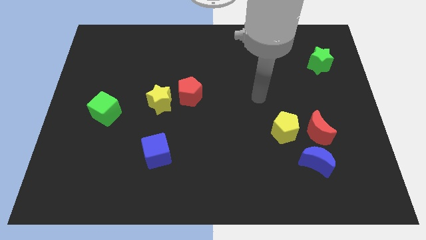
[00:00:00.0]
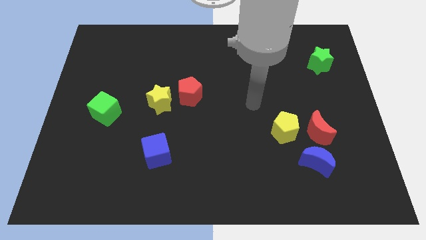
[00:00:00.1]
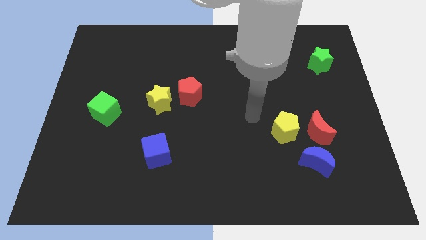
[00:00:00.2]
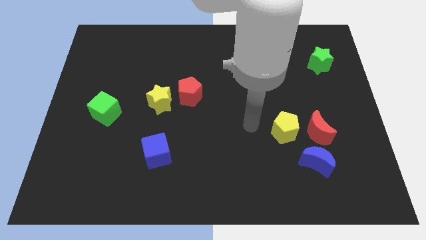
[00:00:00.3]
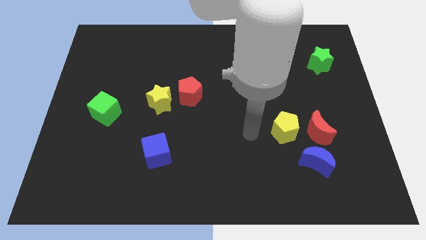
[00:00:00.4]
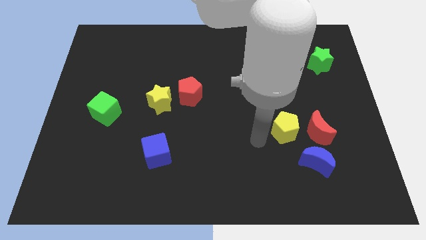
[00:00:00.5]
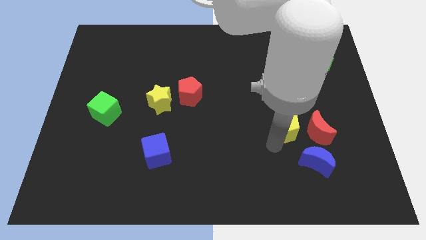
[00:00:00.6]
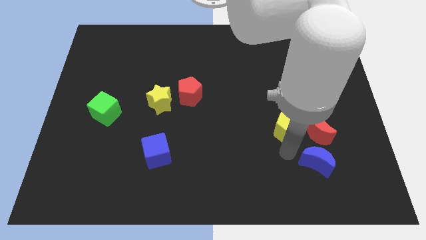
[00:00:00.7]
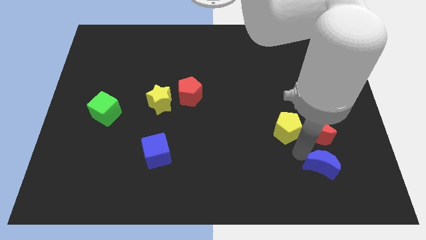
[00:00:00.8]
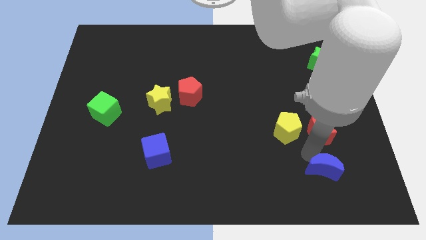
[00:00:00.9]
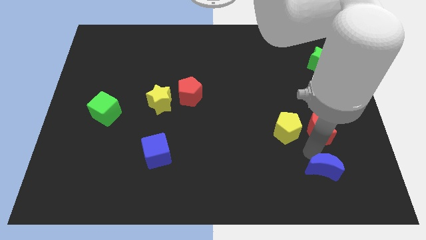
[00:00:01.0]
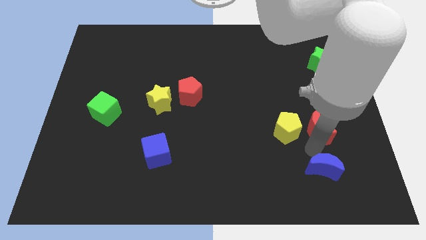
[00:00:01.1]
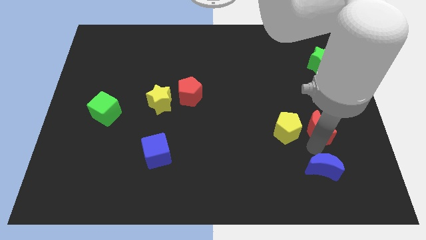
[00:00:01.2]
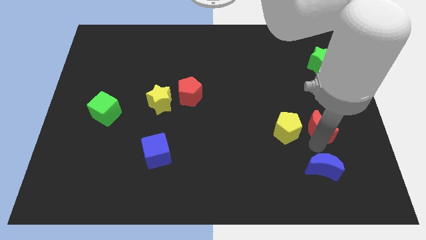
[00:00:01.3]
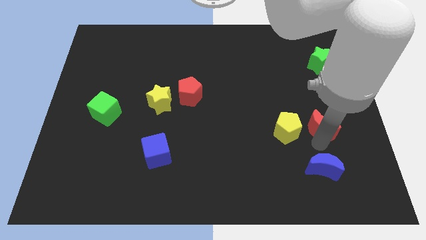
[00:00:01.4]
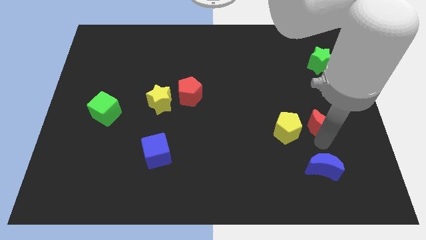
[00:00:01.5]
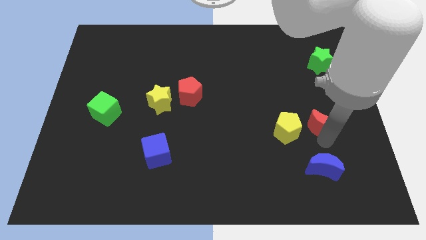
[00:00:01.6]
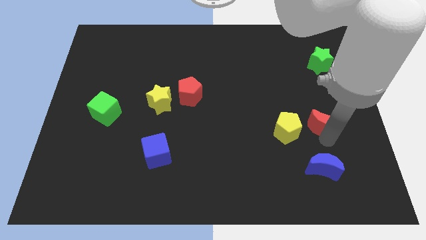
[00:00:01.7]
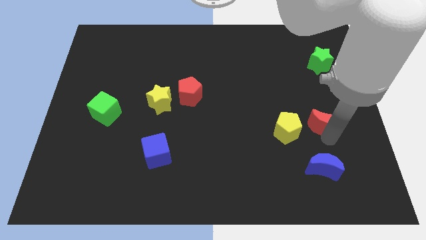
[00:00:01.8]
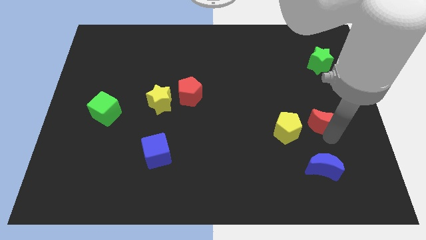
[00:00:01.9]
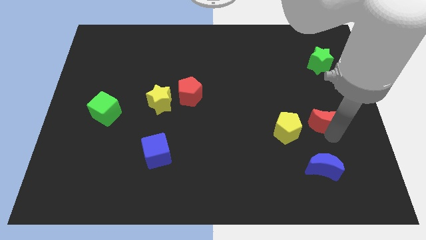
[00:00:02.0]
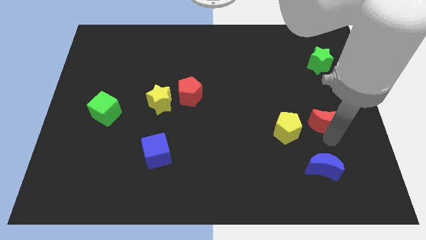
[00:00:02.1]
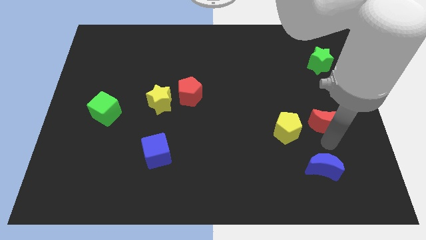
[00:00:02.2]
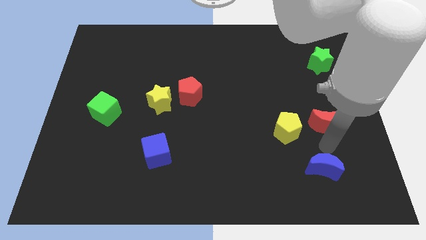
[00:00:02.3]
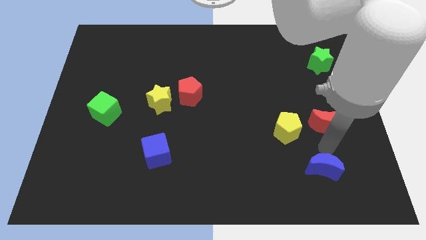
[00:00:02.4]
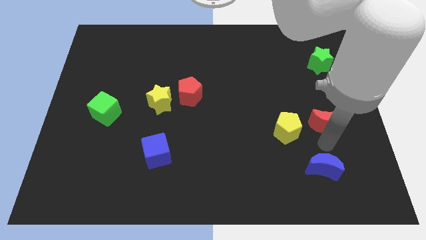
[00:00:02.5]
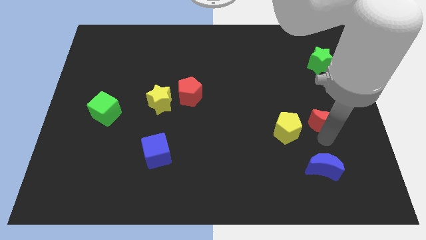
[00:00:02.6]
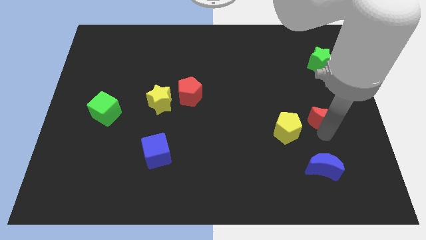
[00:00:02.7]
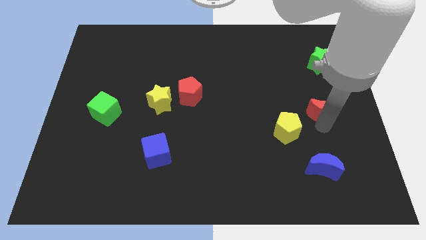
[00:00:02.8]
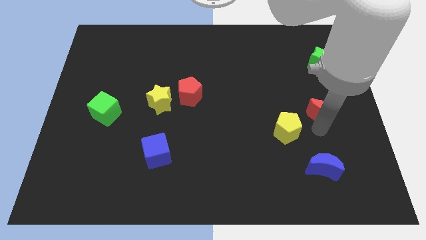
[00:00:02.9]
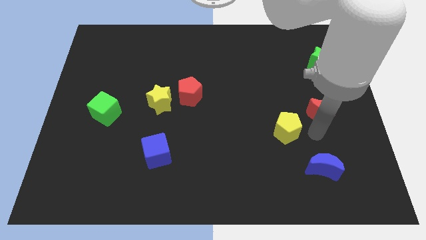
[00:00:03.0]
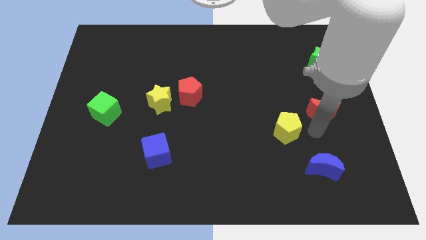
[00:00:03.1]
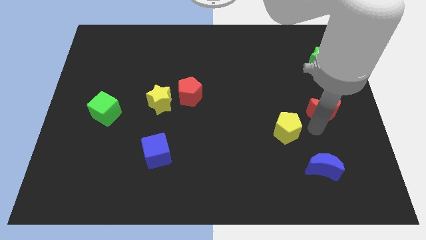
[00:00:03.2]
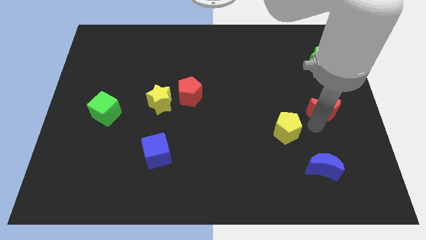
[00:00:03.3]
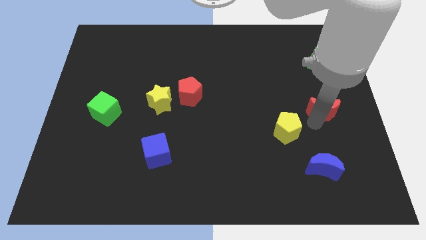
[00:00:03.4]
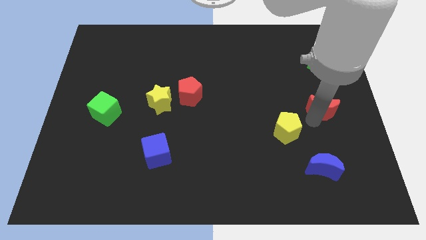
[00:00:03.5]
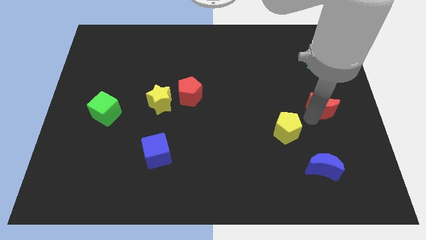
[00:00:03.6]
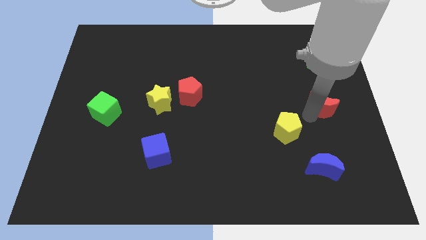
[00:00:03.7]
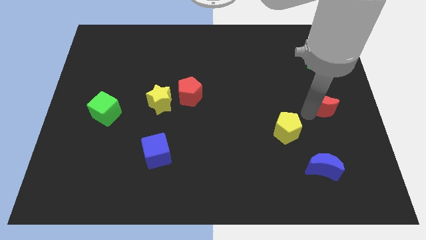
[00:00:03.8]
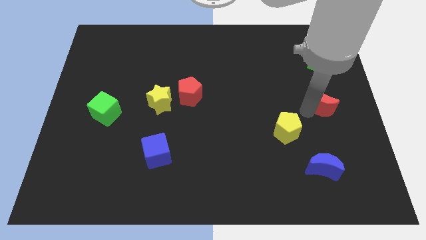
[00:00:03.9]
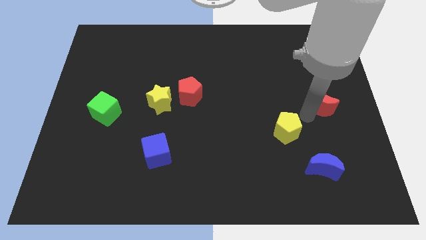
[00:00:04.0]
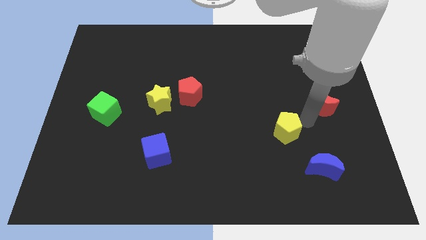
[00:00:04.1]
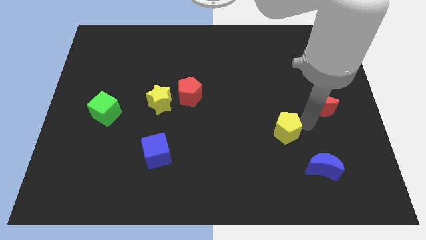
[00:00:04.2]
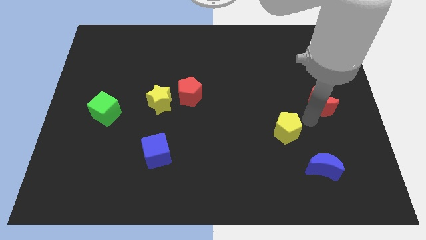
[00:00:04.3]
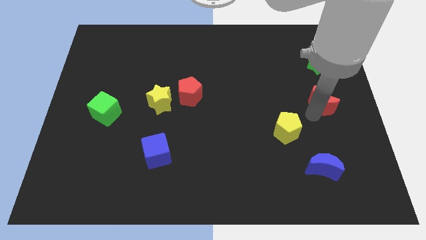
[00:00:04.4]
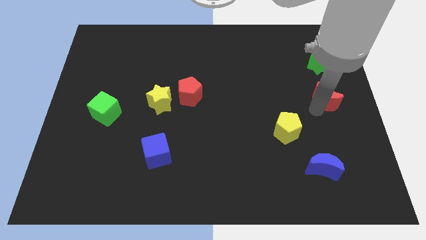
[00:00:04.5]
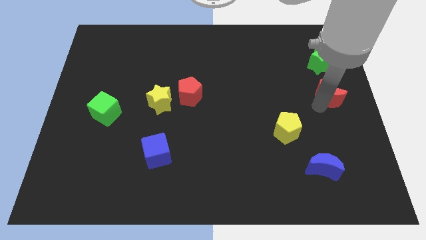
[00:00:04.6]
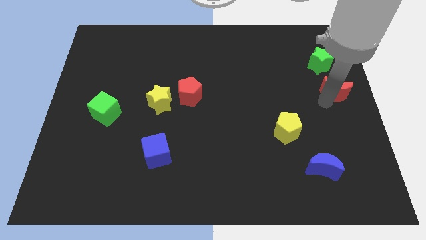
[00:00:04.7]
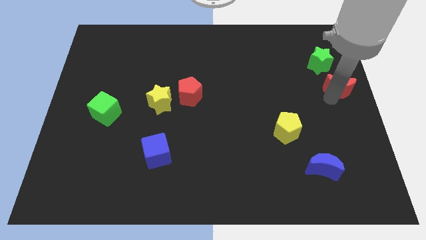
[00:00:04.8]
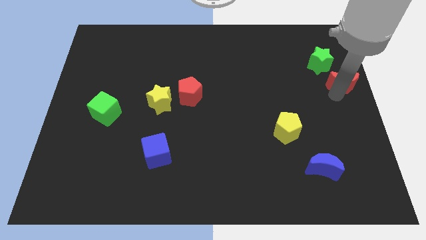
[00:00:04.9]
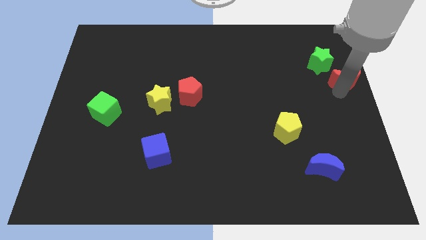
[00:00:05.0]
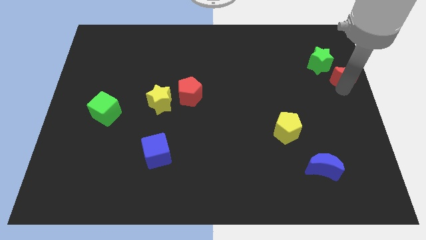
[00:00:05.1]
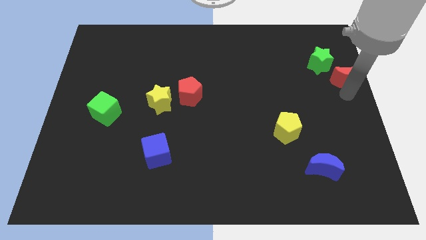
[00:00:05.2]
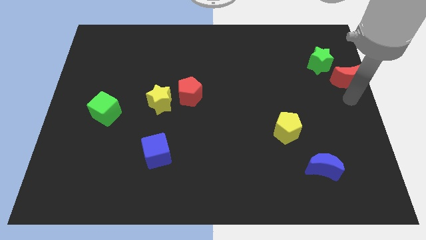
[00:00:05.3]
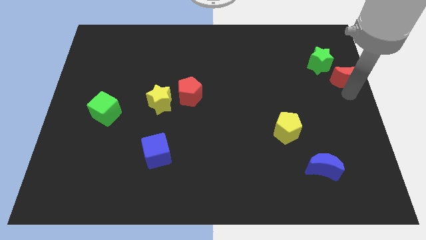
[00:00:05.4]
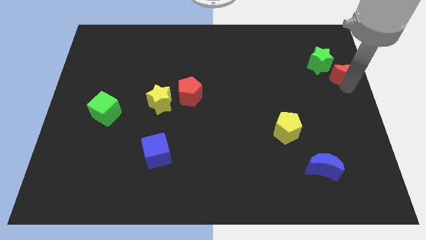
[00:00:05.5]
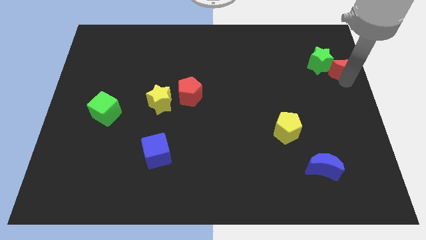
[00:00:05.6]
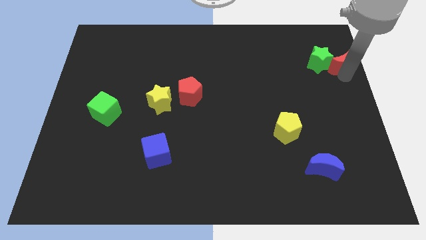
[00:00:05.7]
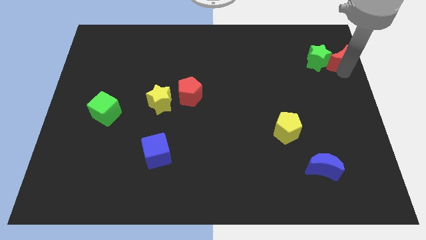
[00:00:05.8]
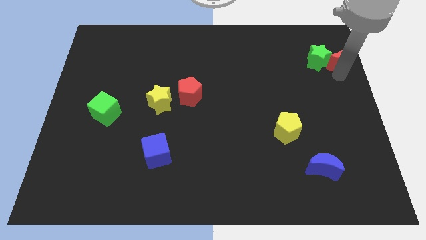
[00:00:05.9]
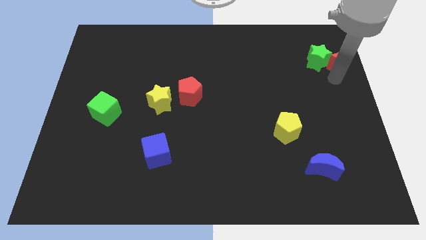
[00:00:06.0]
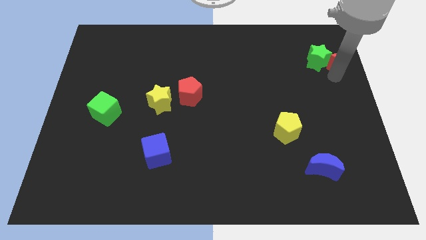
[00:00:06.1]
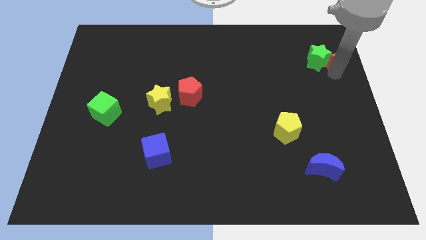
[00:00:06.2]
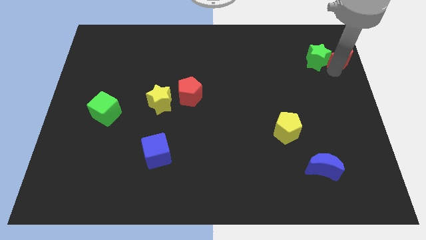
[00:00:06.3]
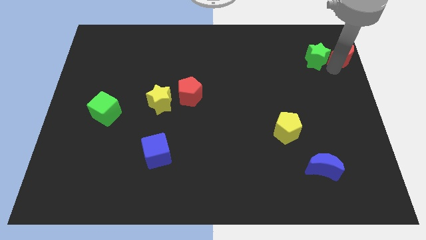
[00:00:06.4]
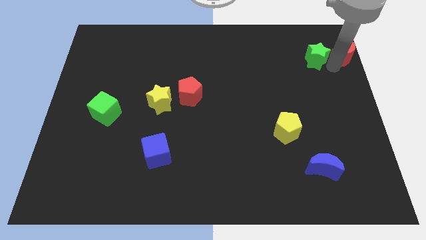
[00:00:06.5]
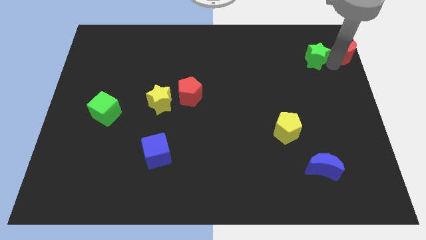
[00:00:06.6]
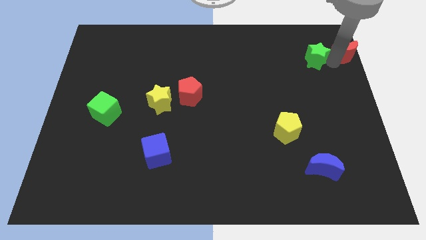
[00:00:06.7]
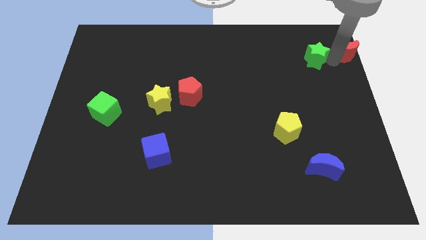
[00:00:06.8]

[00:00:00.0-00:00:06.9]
push the red moon to the top right corner
